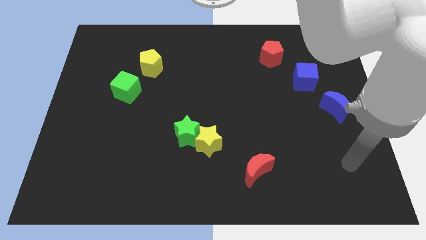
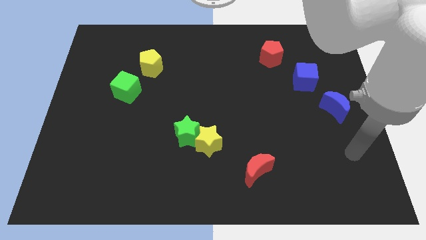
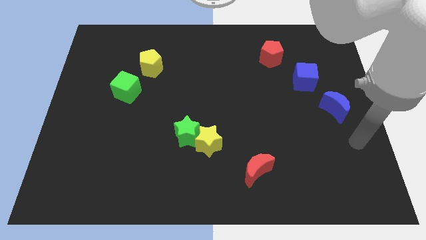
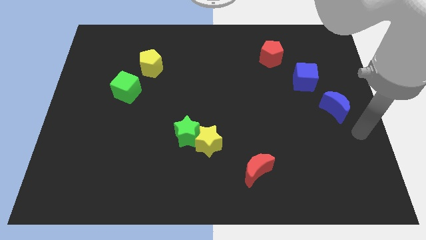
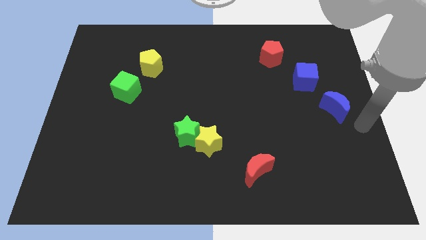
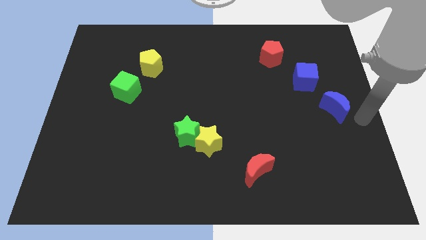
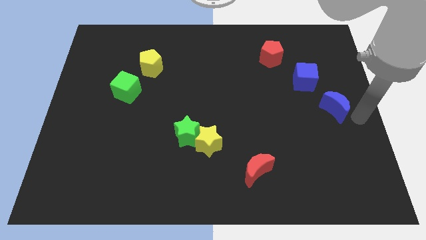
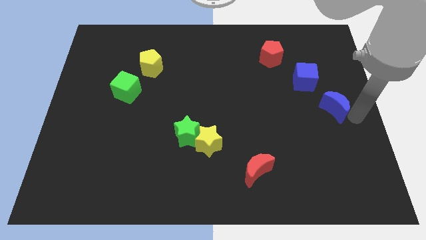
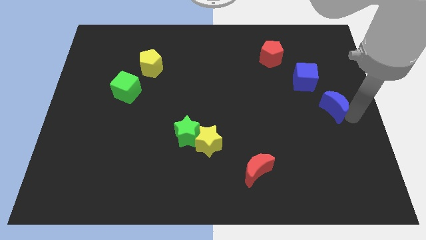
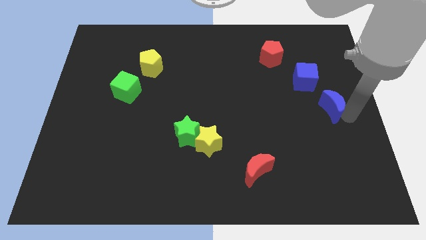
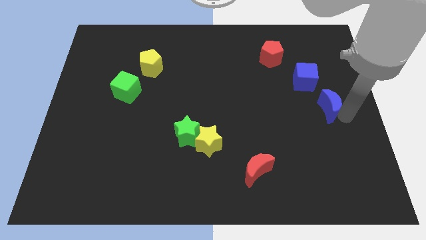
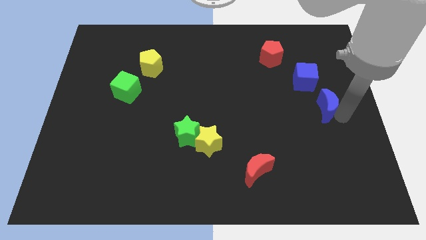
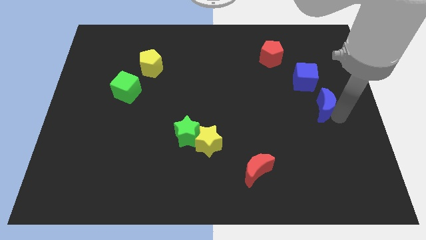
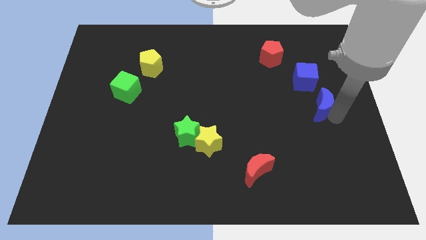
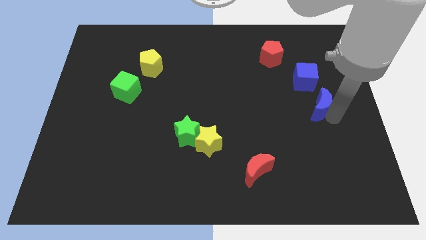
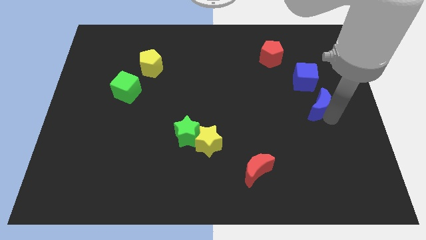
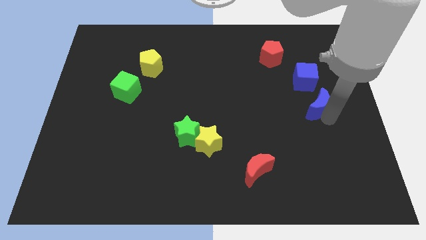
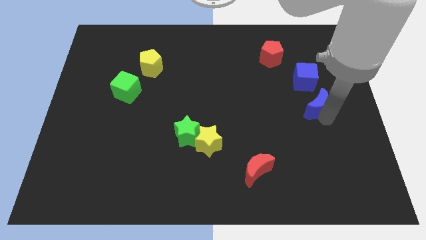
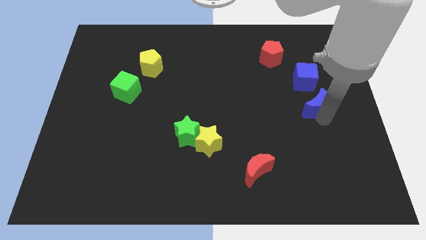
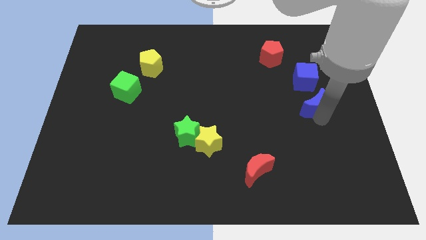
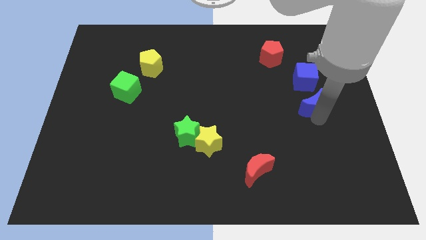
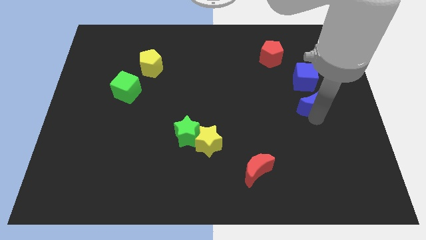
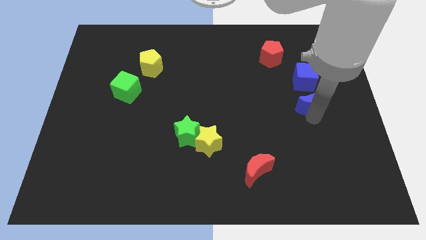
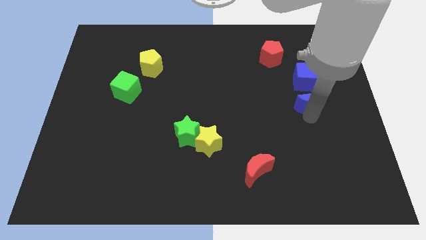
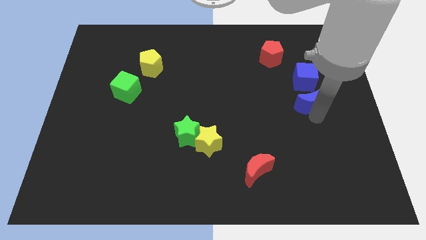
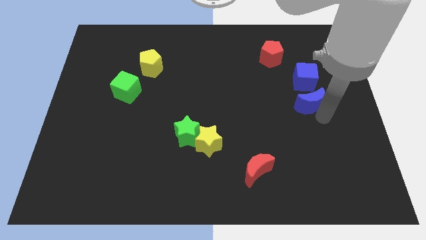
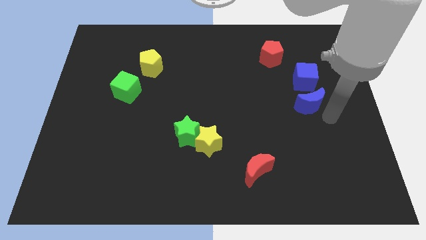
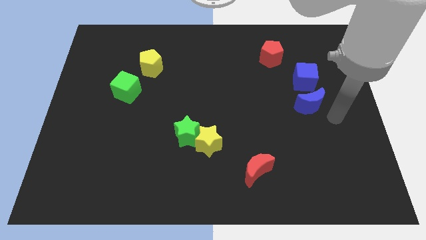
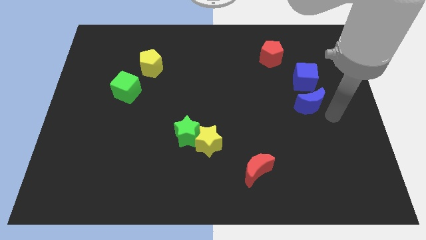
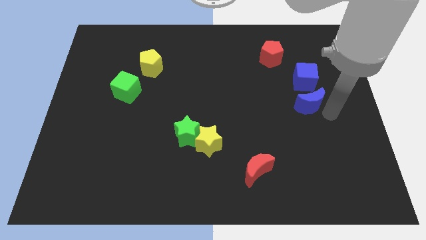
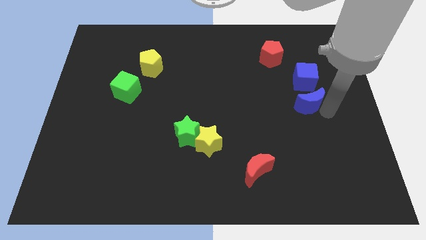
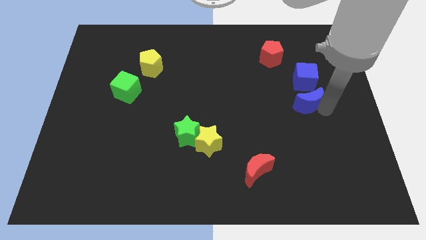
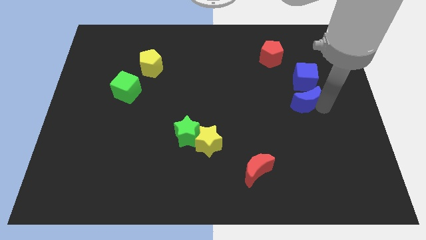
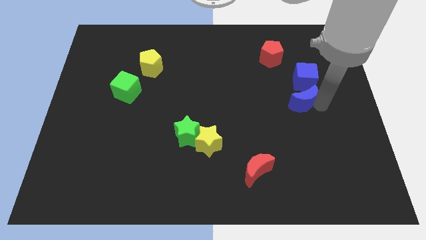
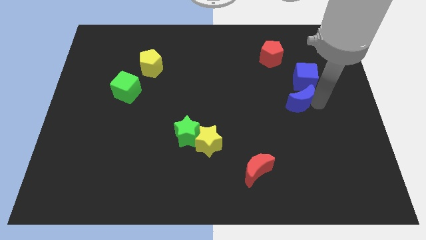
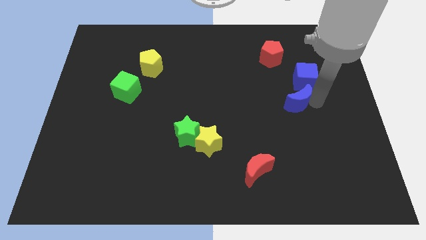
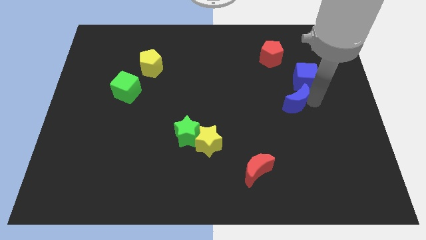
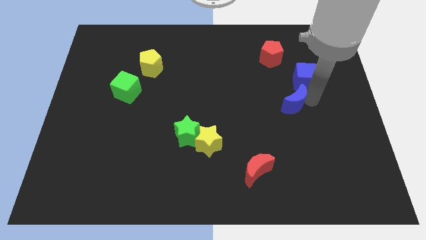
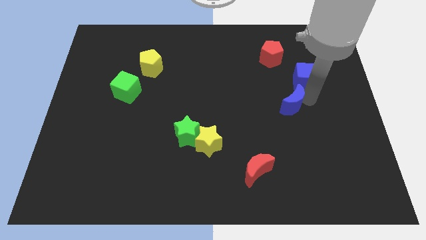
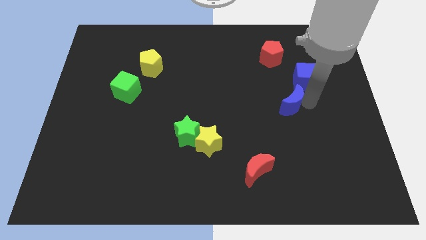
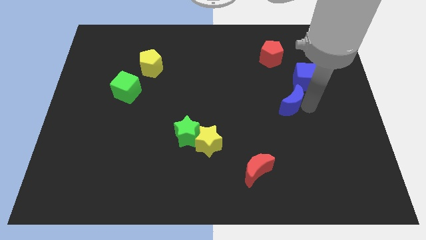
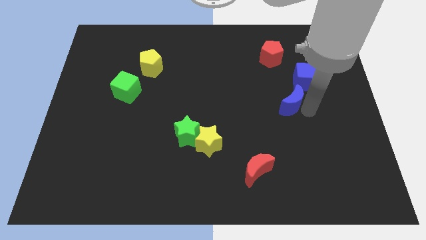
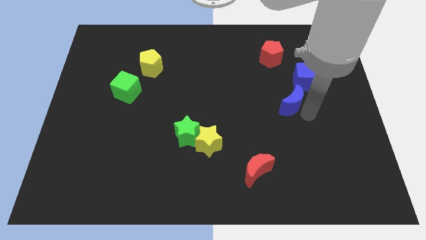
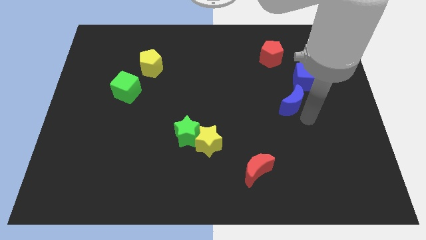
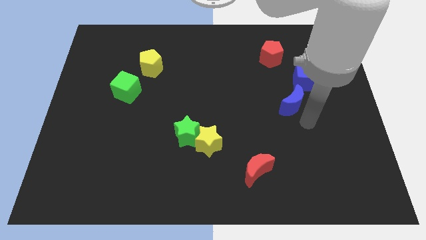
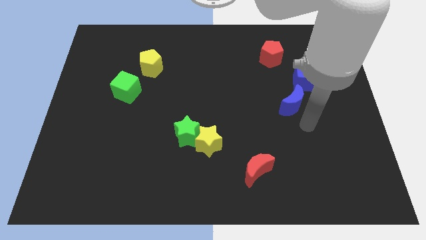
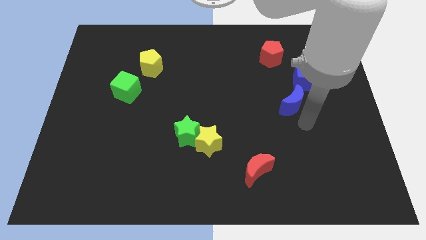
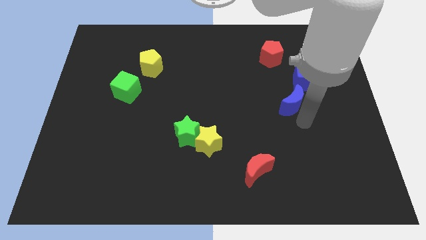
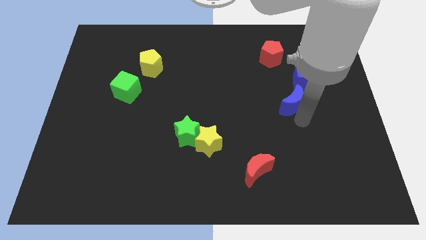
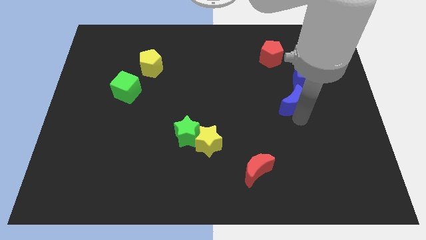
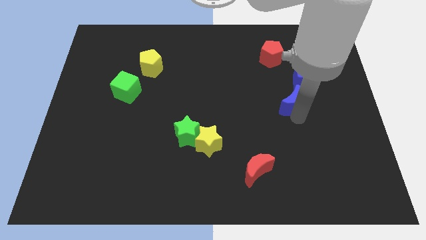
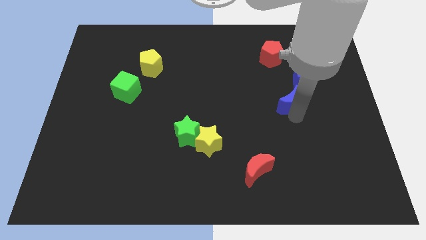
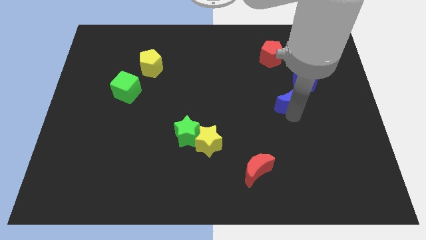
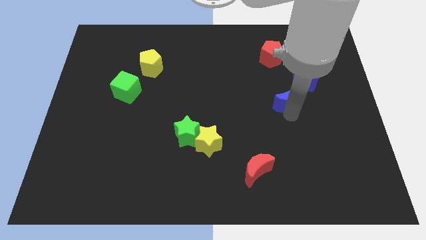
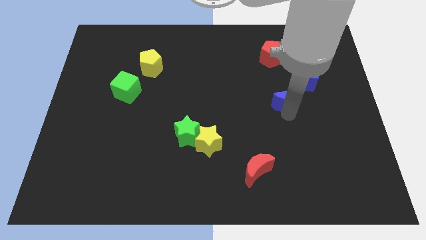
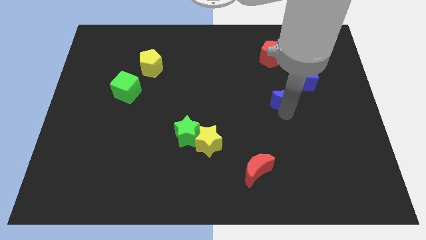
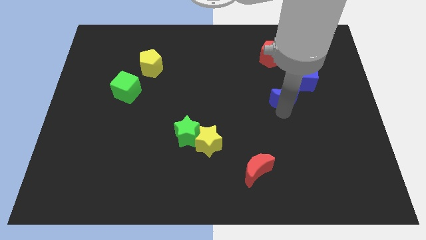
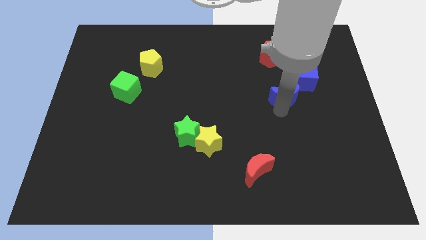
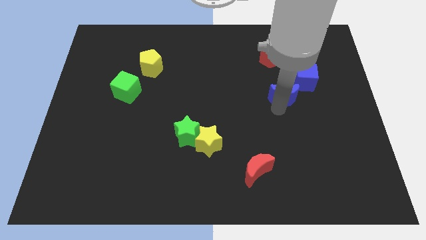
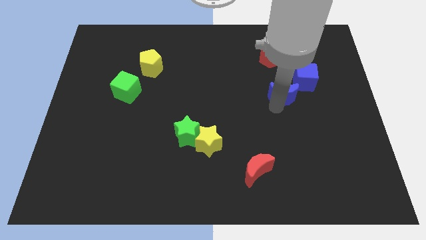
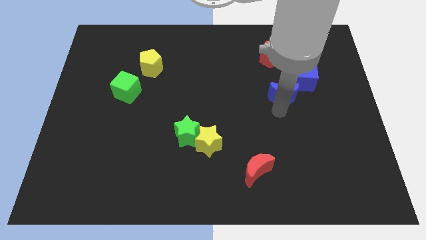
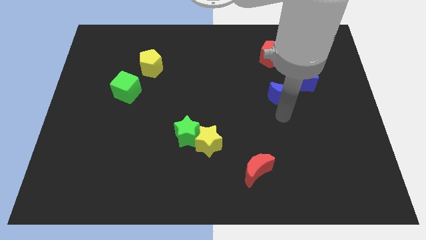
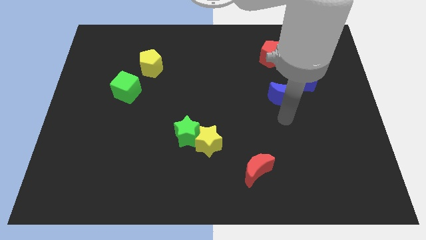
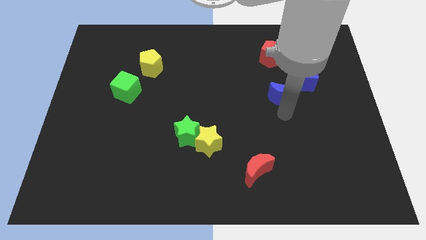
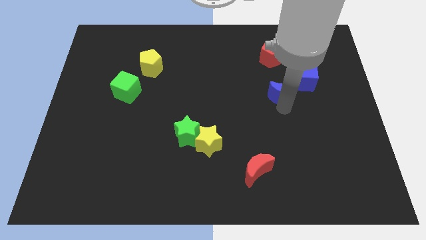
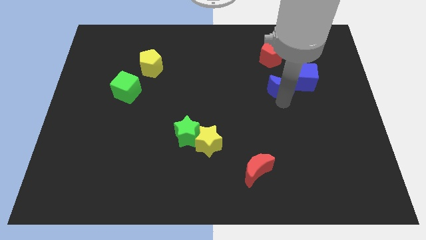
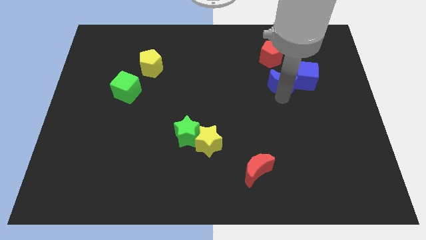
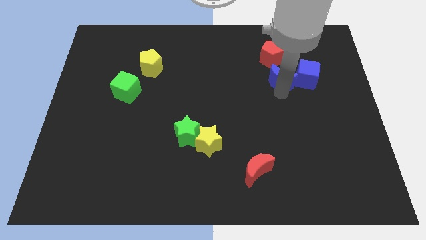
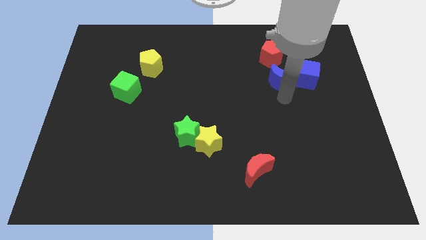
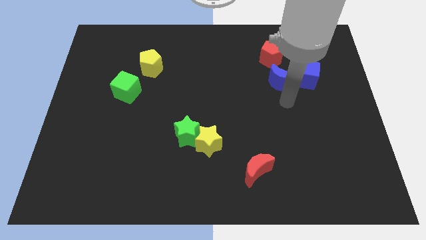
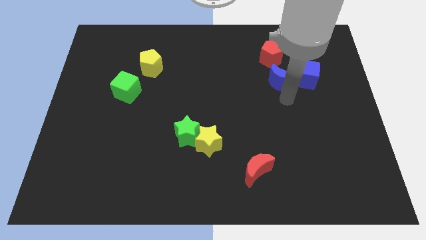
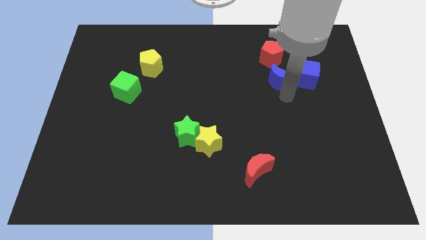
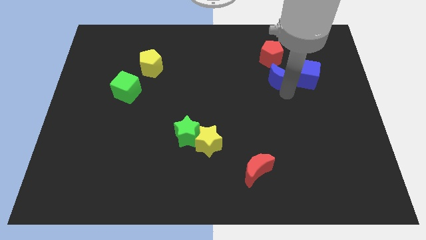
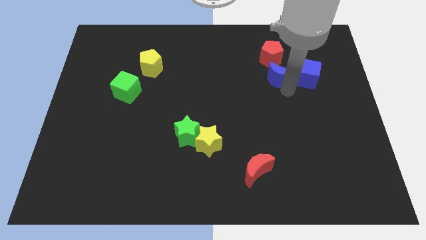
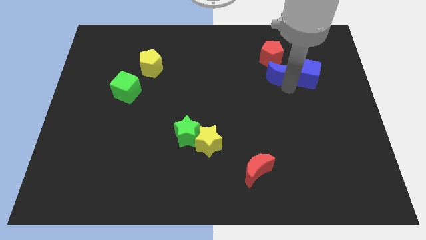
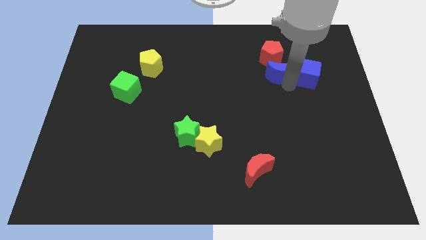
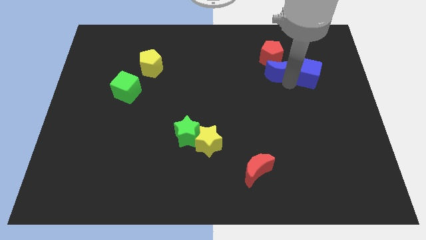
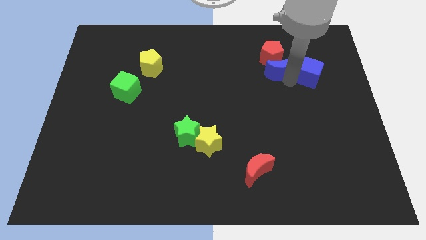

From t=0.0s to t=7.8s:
put the blue moon towards the red pentagon
